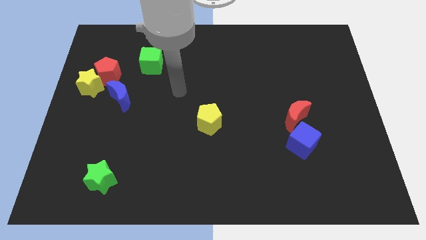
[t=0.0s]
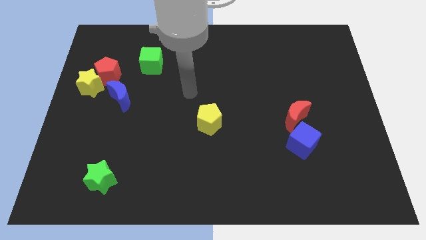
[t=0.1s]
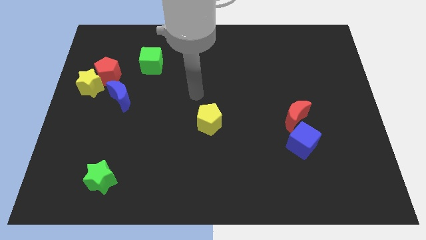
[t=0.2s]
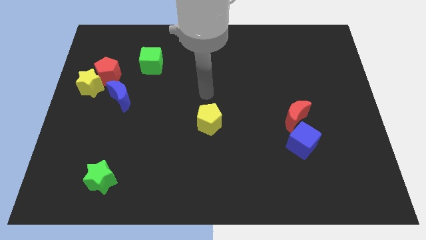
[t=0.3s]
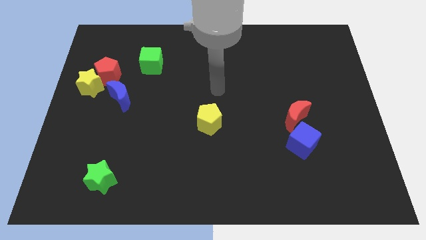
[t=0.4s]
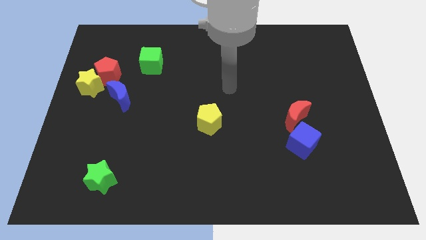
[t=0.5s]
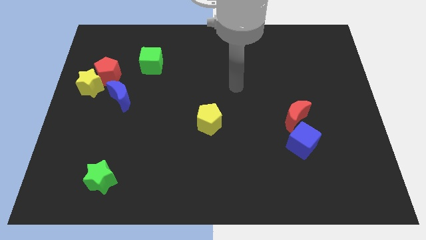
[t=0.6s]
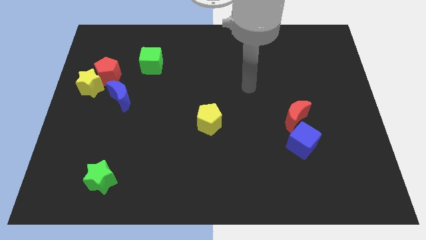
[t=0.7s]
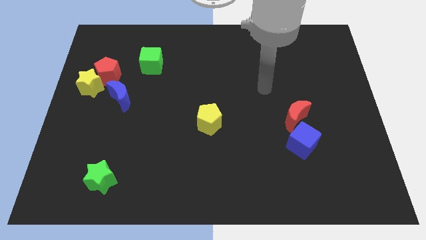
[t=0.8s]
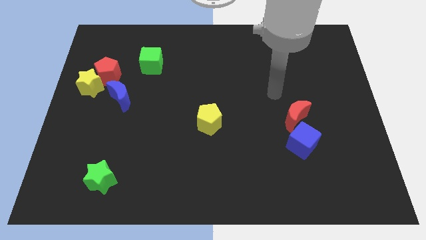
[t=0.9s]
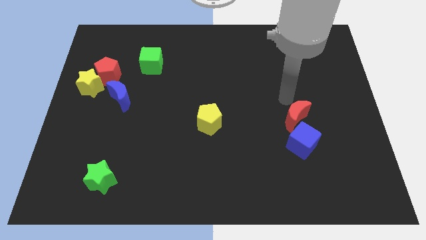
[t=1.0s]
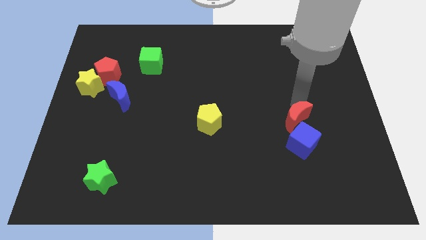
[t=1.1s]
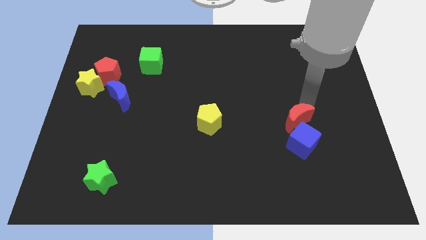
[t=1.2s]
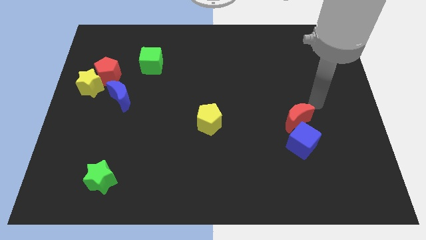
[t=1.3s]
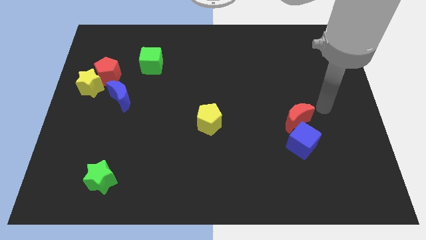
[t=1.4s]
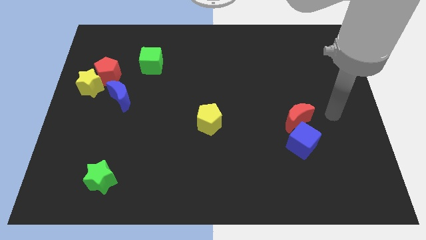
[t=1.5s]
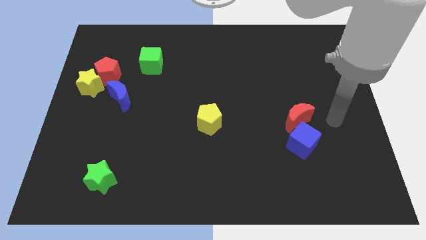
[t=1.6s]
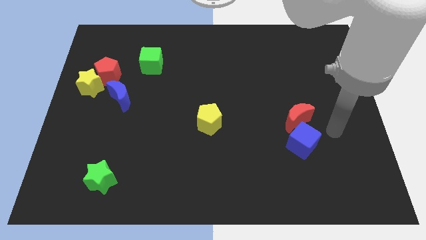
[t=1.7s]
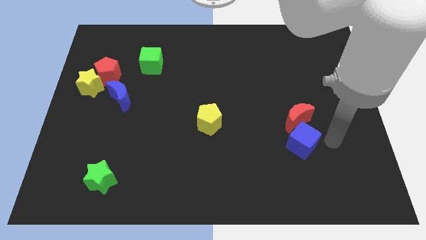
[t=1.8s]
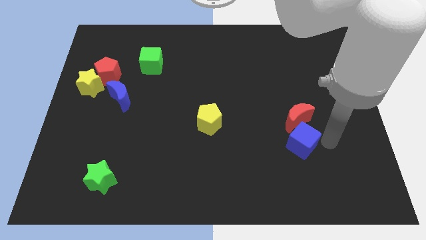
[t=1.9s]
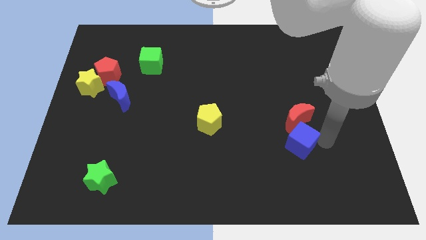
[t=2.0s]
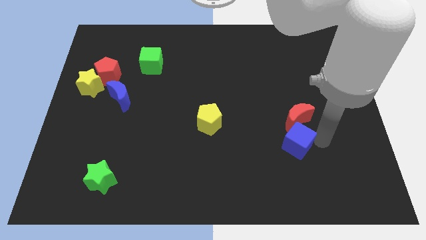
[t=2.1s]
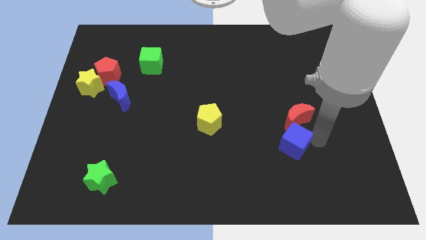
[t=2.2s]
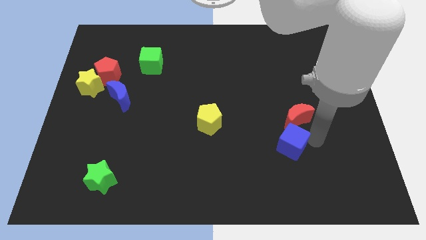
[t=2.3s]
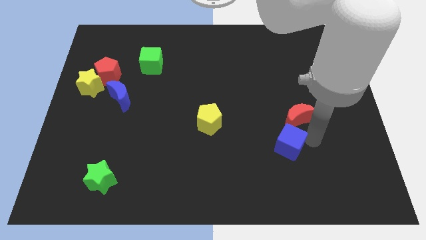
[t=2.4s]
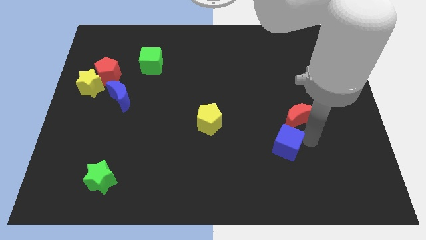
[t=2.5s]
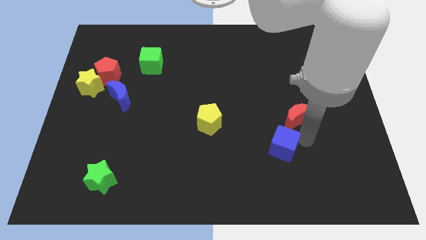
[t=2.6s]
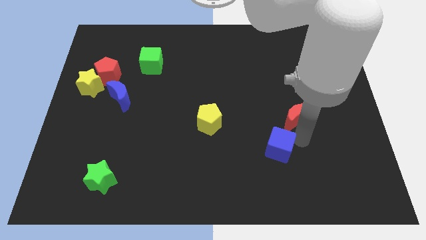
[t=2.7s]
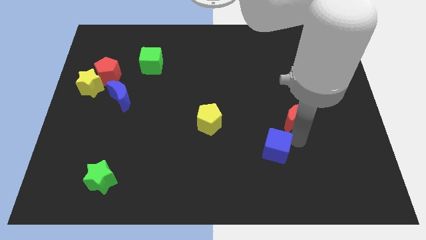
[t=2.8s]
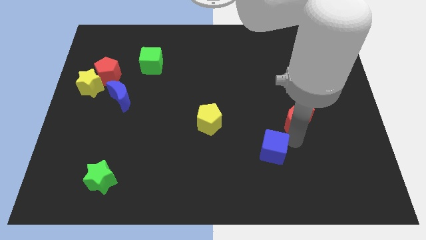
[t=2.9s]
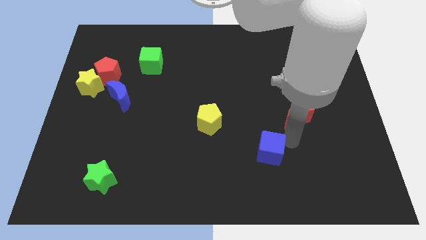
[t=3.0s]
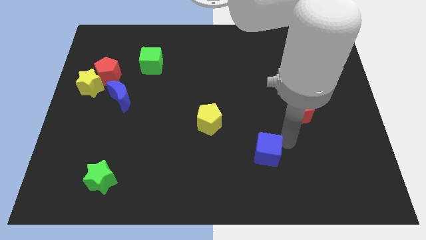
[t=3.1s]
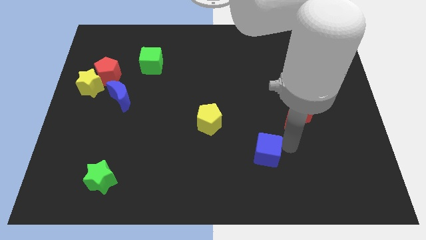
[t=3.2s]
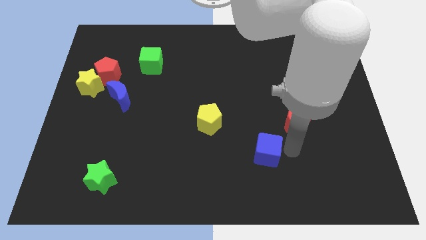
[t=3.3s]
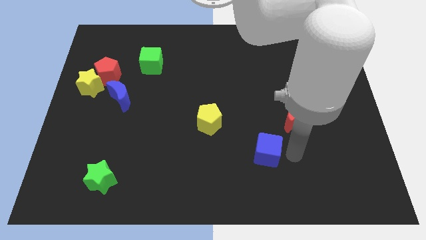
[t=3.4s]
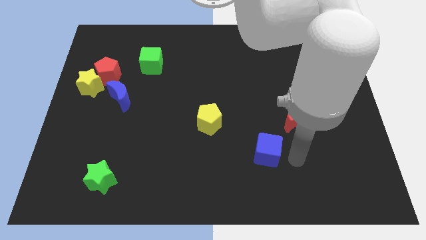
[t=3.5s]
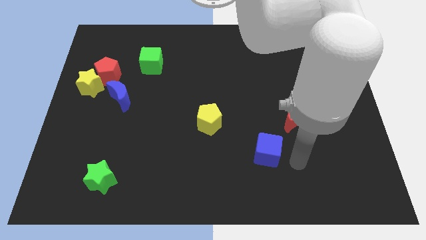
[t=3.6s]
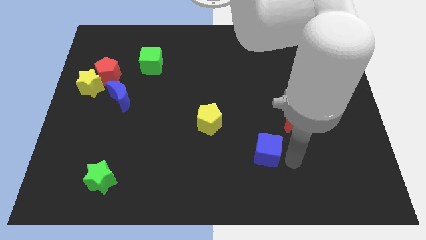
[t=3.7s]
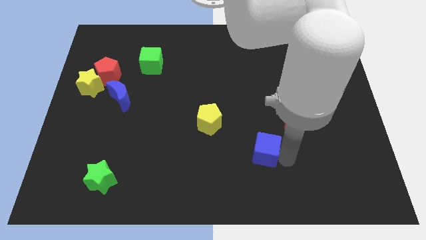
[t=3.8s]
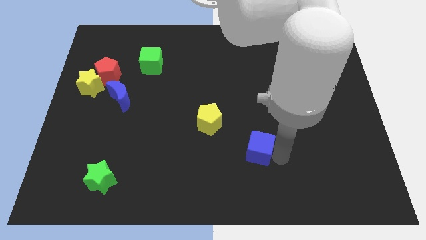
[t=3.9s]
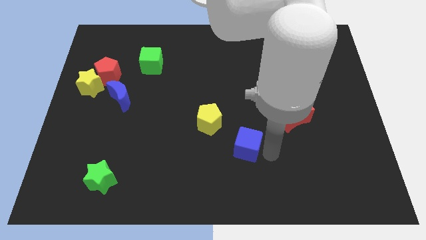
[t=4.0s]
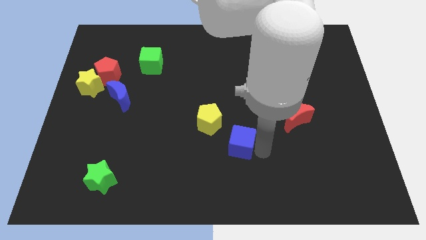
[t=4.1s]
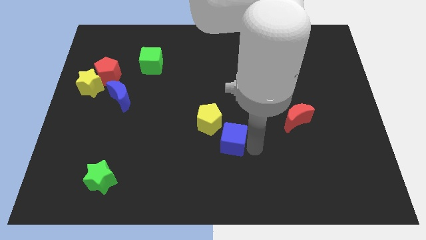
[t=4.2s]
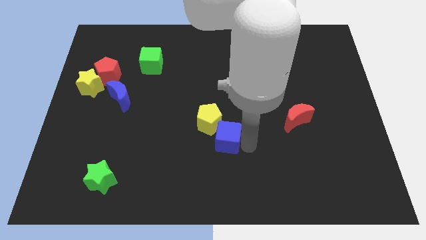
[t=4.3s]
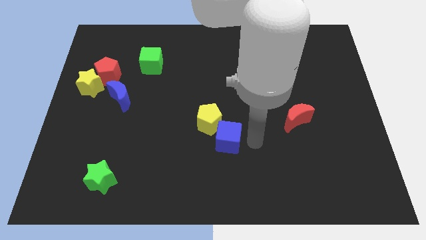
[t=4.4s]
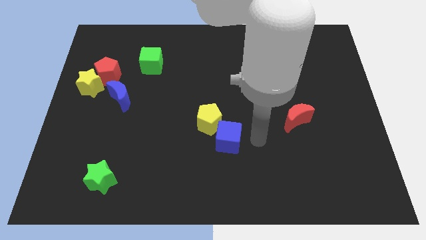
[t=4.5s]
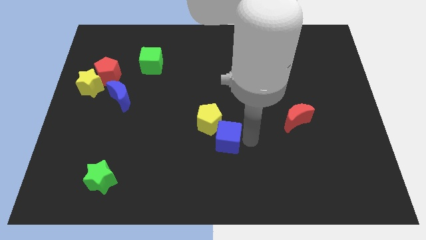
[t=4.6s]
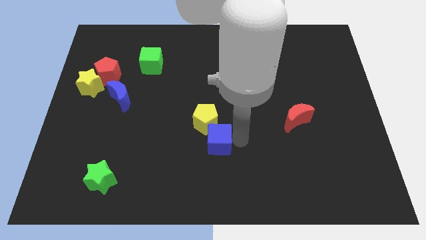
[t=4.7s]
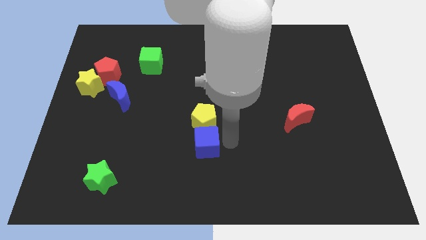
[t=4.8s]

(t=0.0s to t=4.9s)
put the blue cube diagonally down and to the left of the yellow pentagon

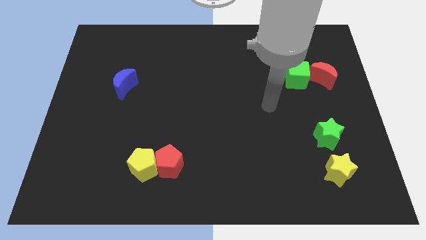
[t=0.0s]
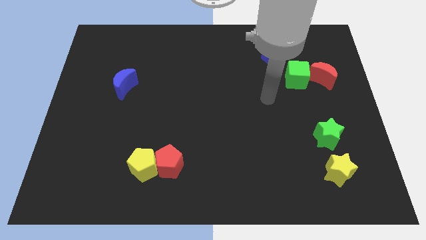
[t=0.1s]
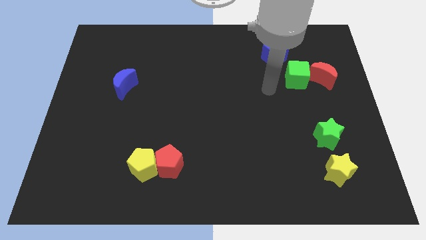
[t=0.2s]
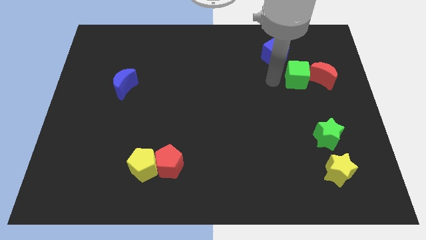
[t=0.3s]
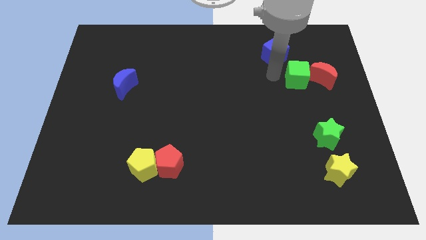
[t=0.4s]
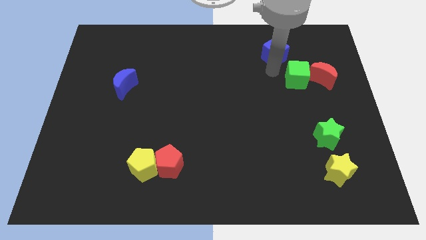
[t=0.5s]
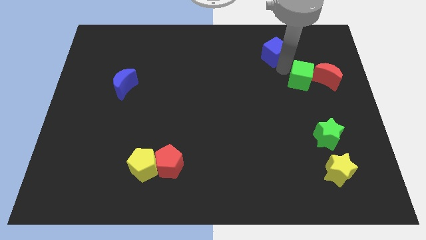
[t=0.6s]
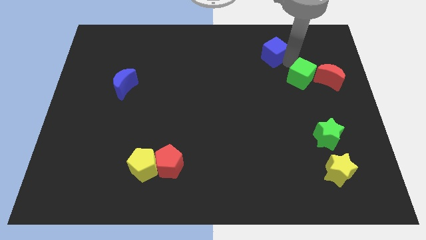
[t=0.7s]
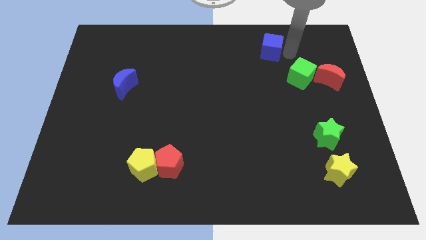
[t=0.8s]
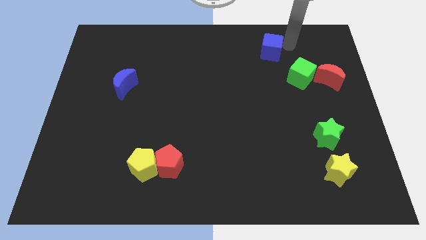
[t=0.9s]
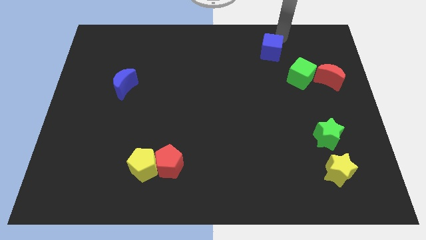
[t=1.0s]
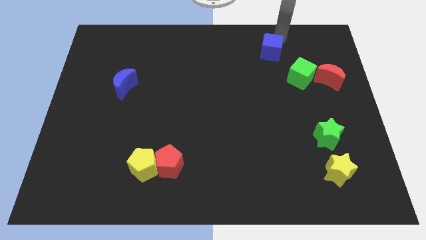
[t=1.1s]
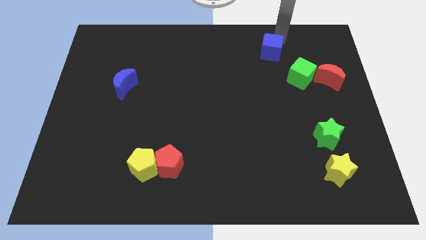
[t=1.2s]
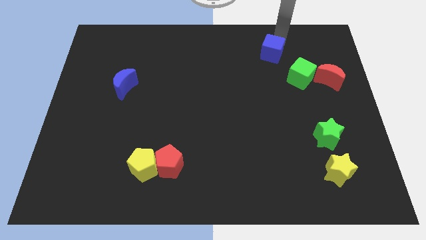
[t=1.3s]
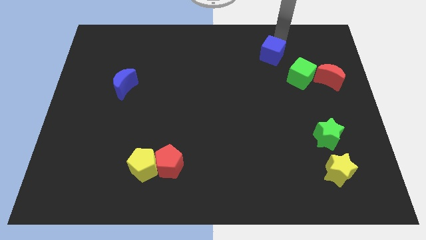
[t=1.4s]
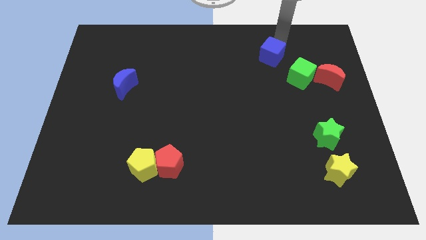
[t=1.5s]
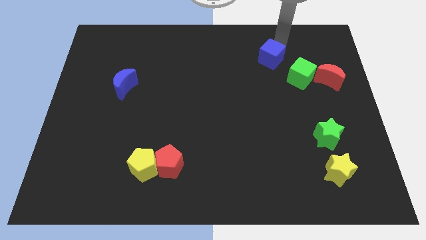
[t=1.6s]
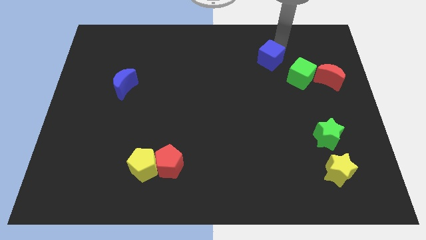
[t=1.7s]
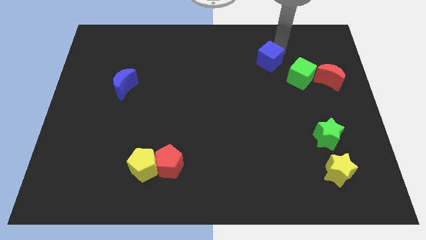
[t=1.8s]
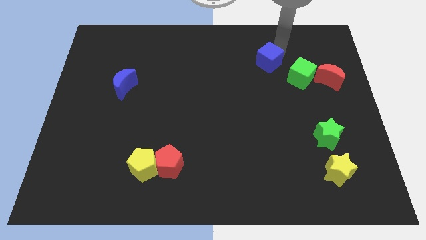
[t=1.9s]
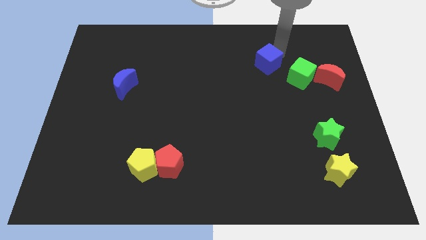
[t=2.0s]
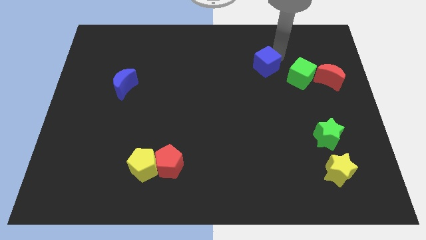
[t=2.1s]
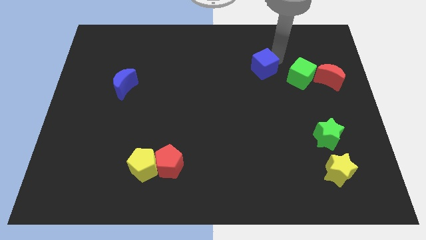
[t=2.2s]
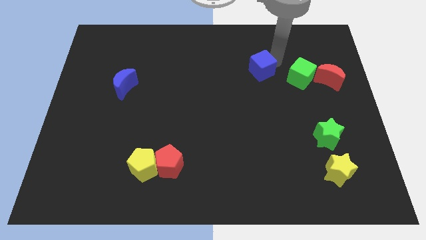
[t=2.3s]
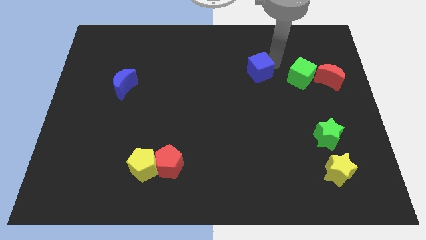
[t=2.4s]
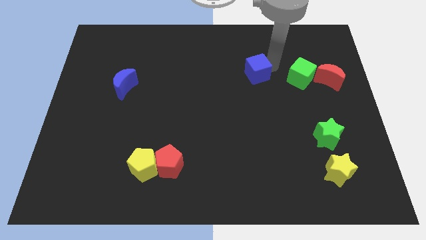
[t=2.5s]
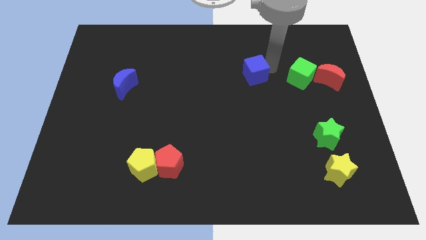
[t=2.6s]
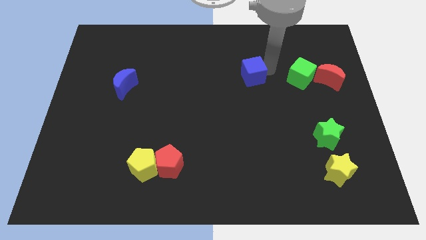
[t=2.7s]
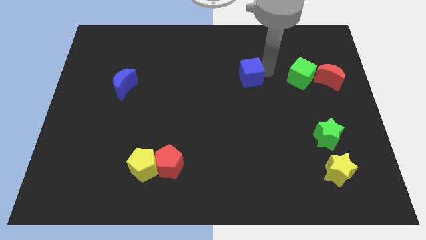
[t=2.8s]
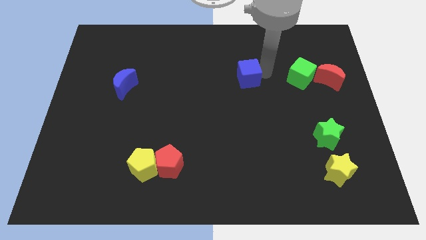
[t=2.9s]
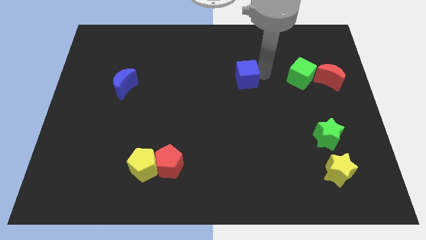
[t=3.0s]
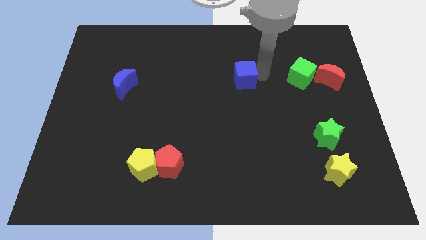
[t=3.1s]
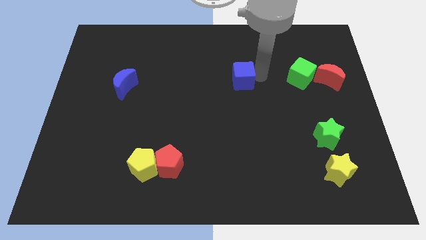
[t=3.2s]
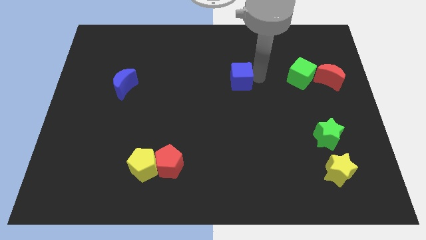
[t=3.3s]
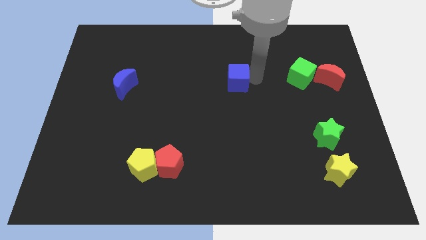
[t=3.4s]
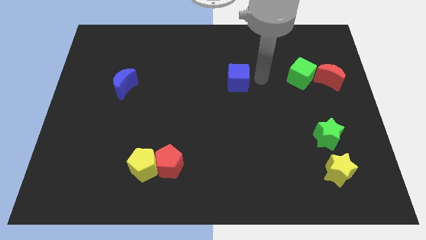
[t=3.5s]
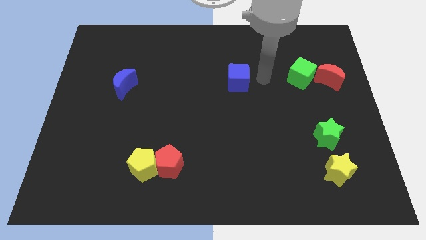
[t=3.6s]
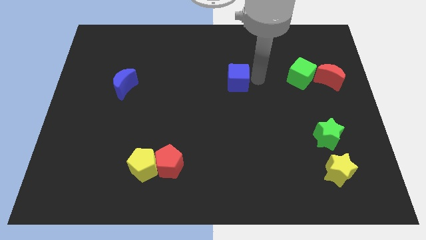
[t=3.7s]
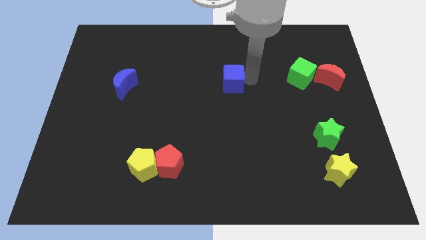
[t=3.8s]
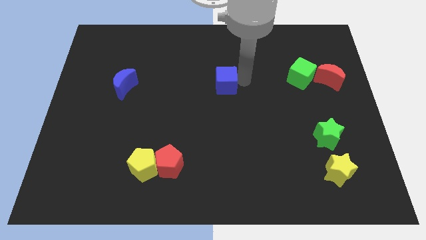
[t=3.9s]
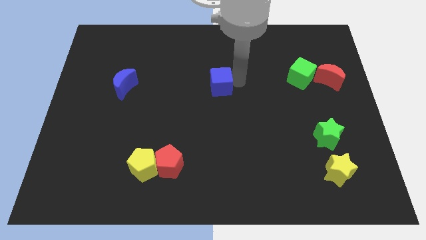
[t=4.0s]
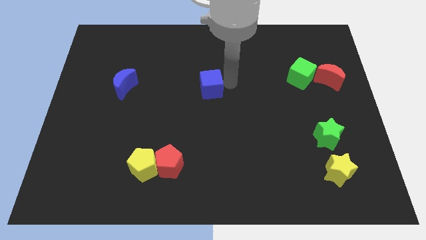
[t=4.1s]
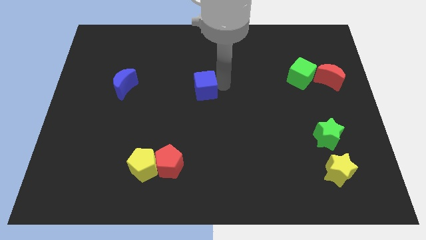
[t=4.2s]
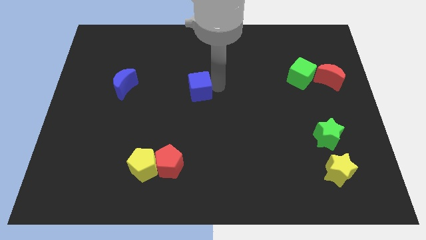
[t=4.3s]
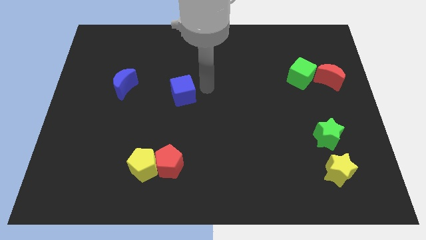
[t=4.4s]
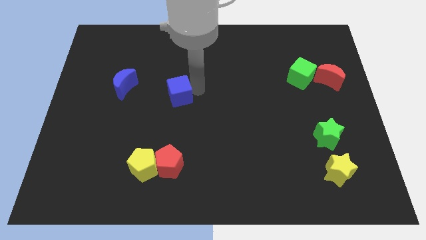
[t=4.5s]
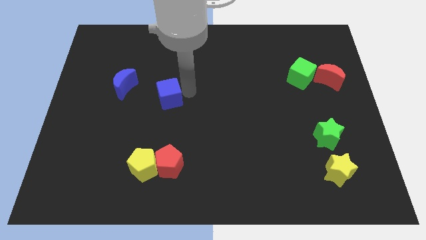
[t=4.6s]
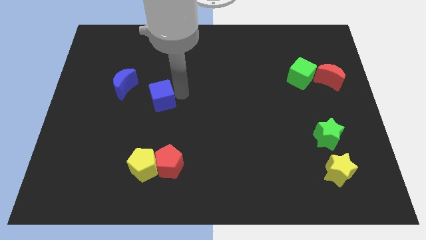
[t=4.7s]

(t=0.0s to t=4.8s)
move the blue cube diagonally down and to the right of the blue moon
